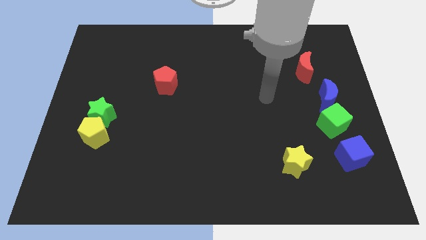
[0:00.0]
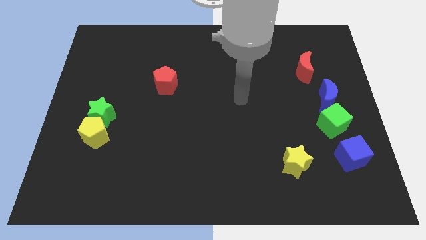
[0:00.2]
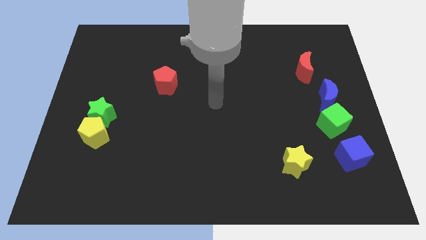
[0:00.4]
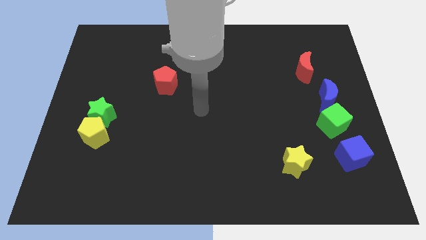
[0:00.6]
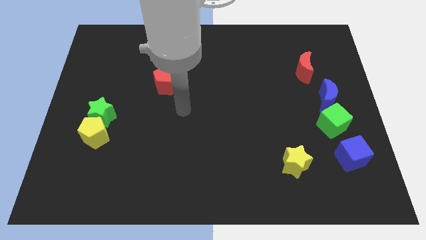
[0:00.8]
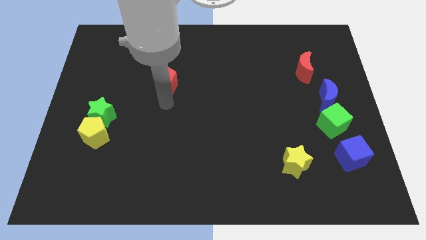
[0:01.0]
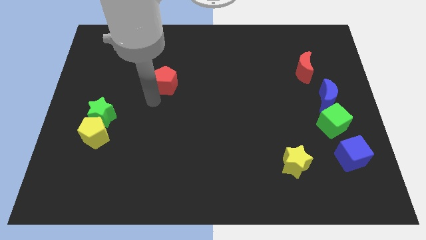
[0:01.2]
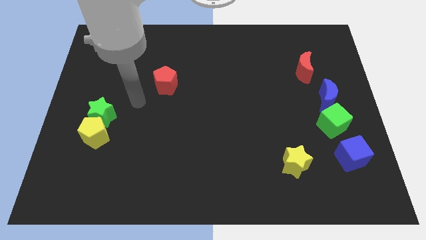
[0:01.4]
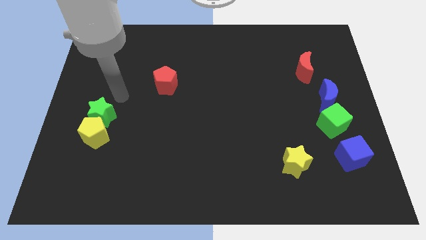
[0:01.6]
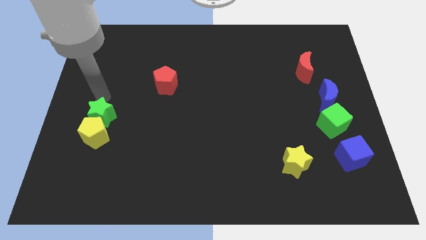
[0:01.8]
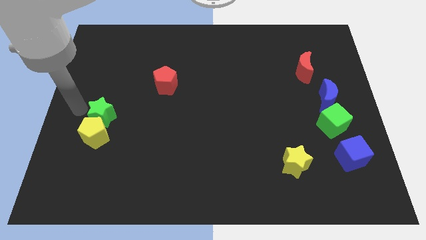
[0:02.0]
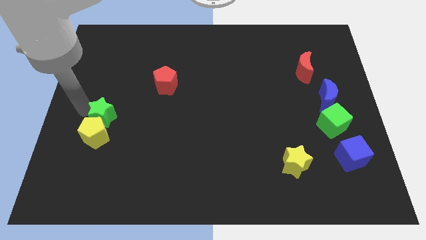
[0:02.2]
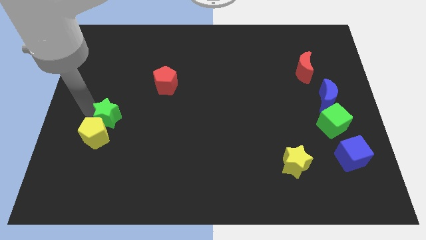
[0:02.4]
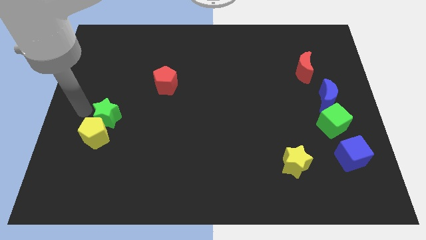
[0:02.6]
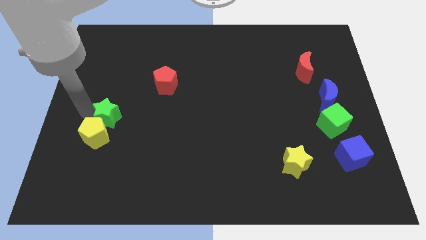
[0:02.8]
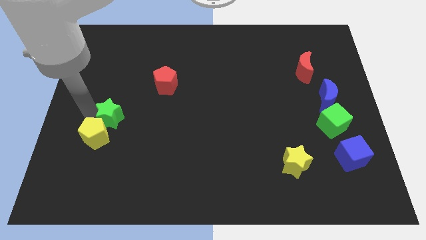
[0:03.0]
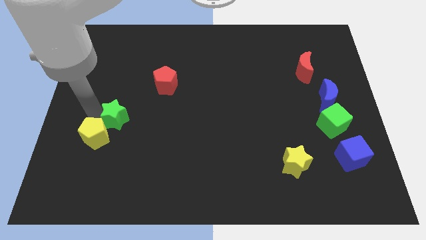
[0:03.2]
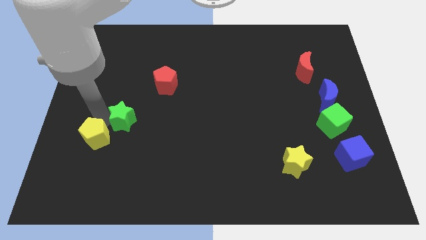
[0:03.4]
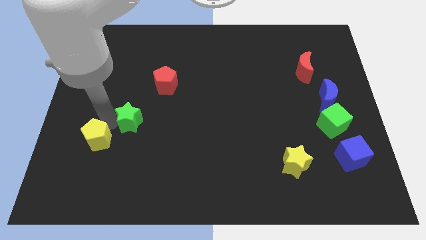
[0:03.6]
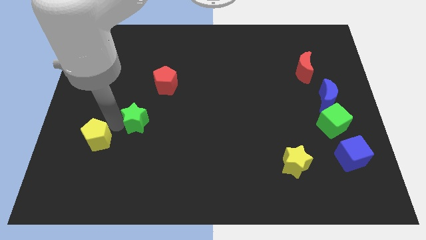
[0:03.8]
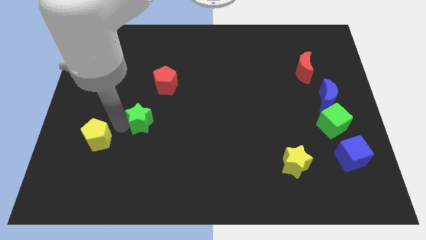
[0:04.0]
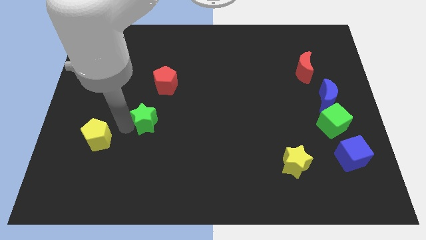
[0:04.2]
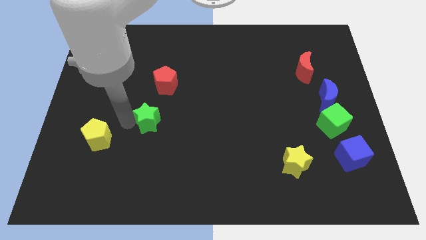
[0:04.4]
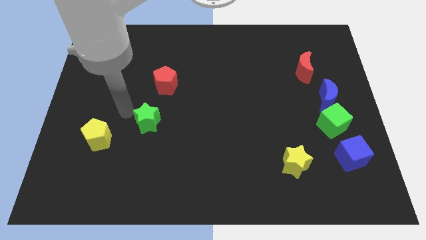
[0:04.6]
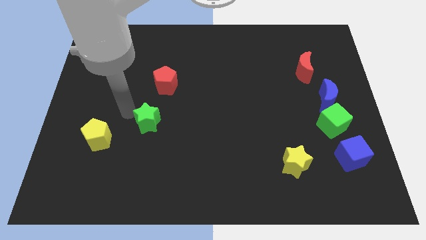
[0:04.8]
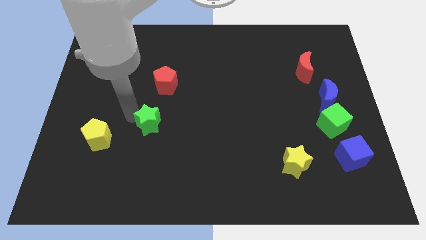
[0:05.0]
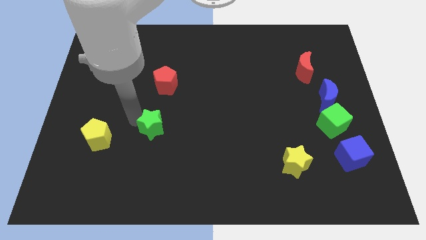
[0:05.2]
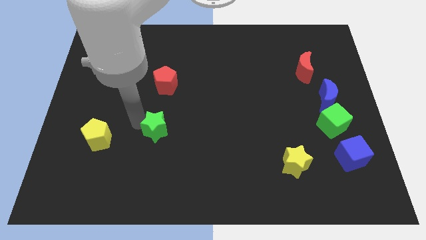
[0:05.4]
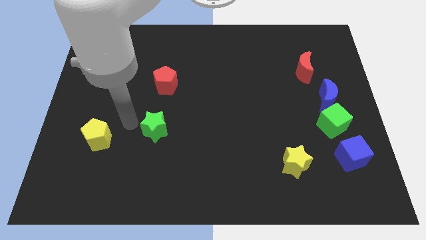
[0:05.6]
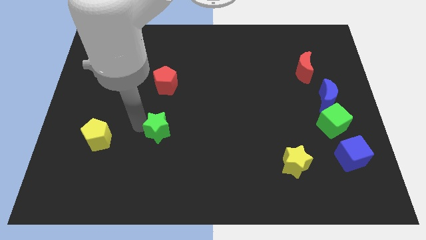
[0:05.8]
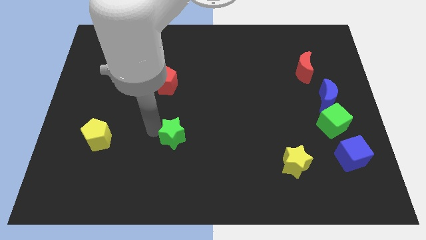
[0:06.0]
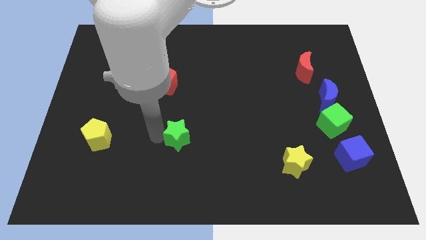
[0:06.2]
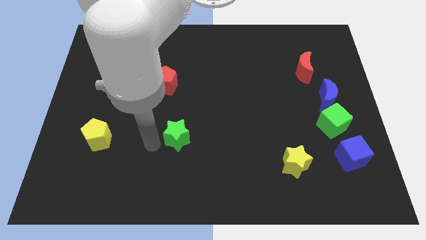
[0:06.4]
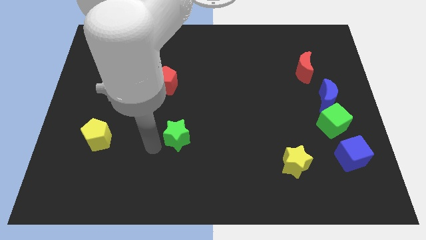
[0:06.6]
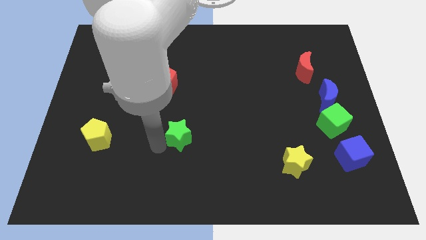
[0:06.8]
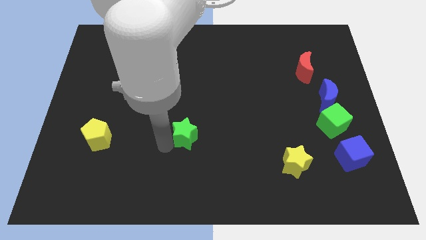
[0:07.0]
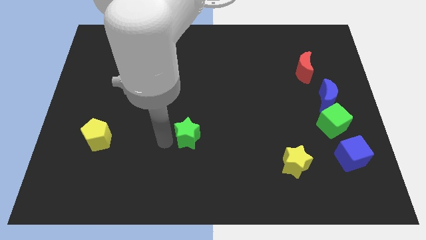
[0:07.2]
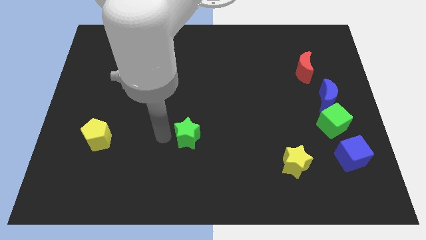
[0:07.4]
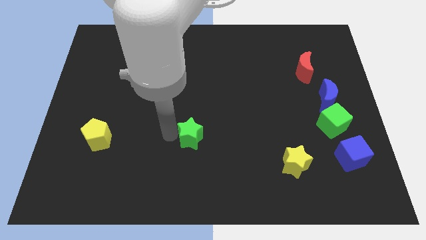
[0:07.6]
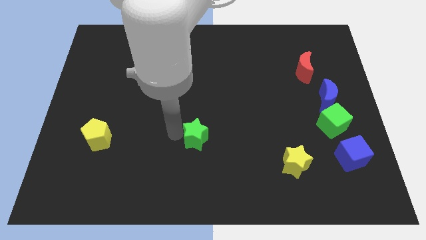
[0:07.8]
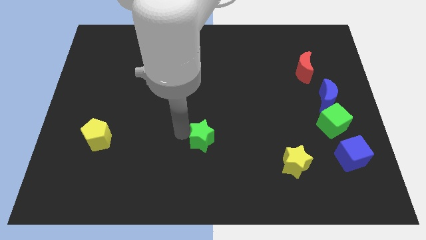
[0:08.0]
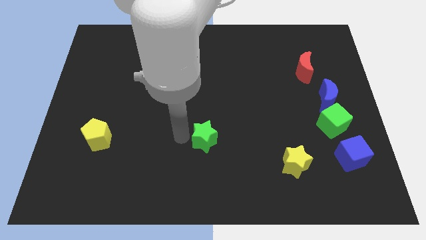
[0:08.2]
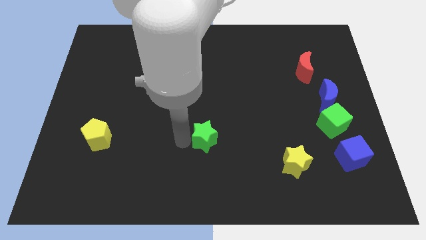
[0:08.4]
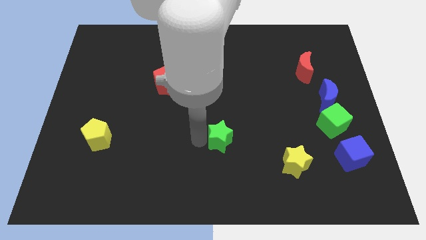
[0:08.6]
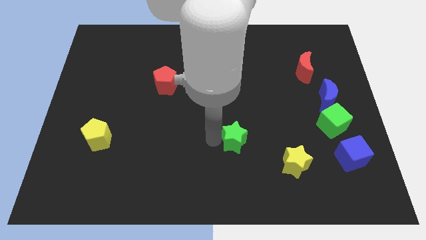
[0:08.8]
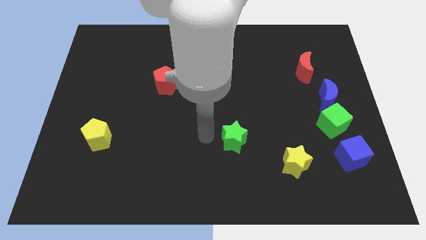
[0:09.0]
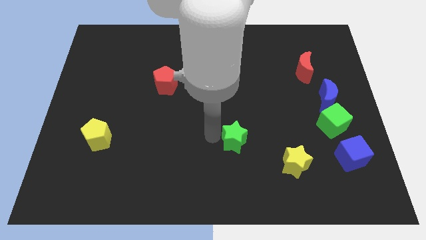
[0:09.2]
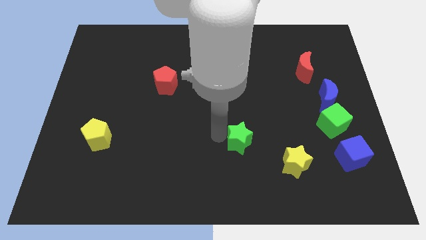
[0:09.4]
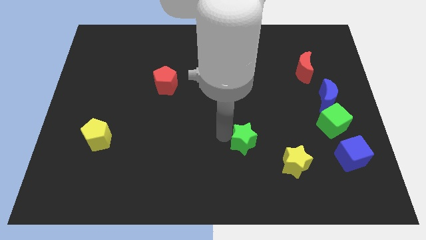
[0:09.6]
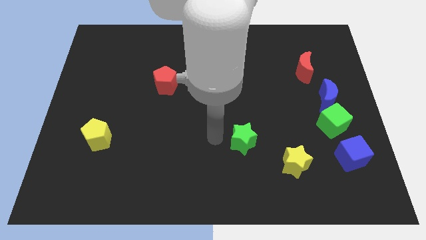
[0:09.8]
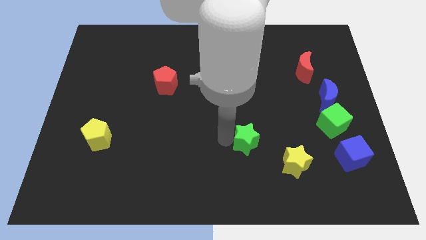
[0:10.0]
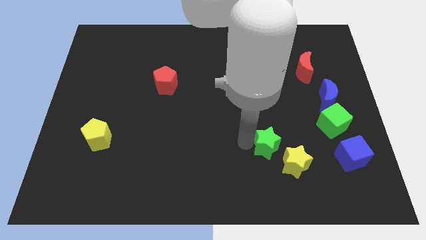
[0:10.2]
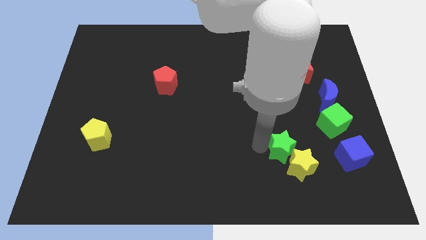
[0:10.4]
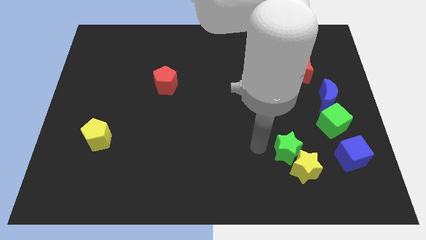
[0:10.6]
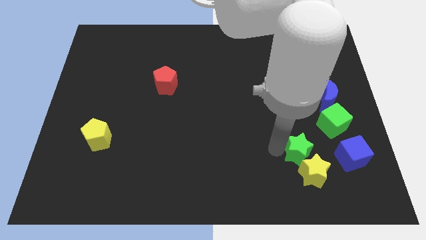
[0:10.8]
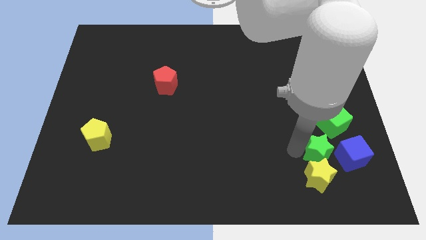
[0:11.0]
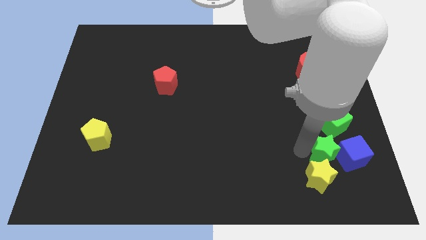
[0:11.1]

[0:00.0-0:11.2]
push the green star close to the blue cube

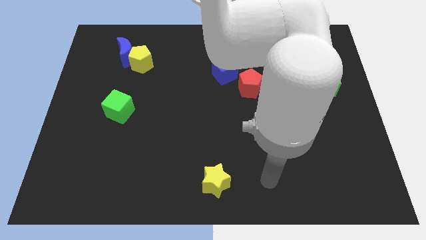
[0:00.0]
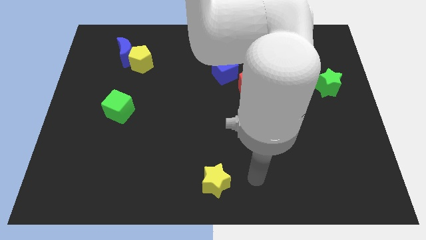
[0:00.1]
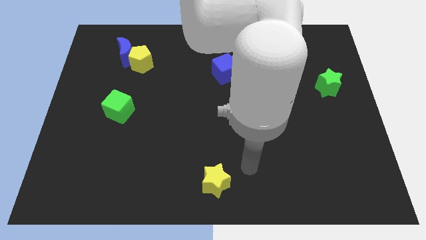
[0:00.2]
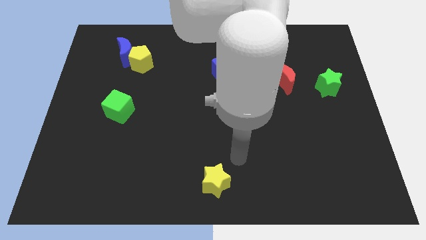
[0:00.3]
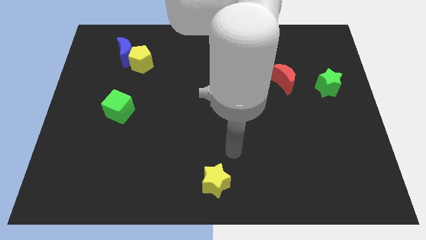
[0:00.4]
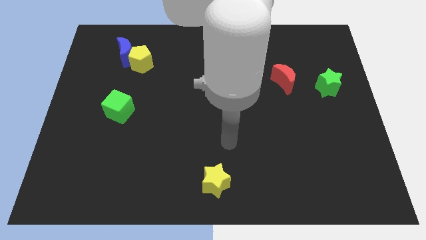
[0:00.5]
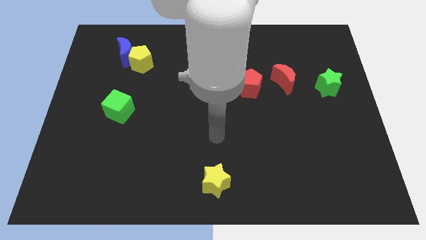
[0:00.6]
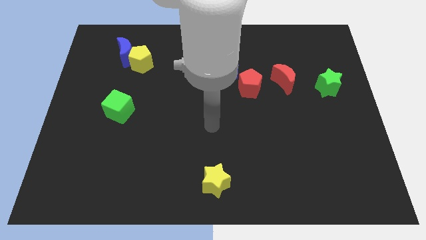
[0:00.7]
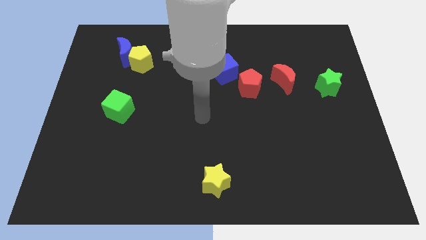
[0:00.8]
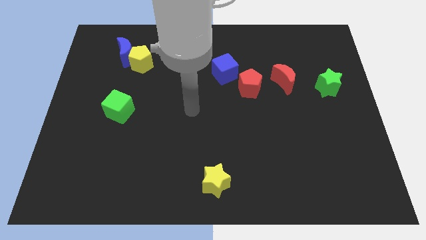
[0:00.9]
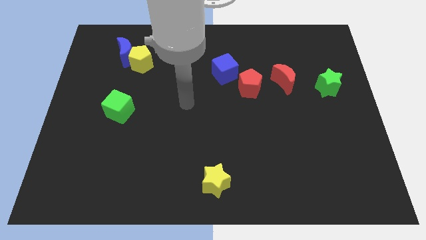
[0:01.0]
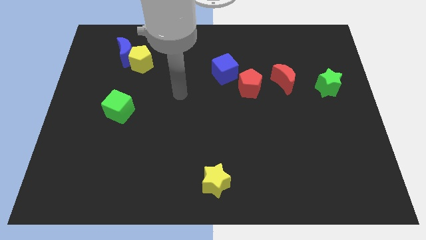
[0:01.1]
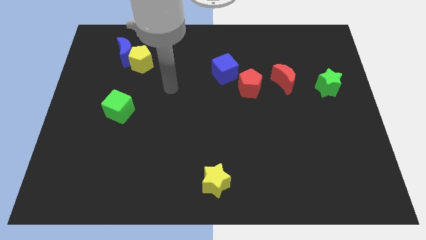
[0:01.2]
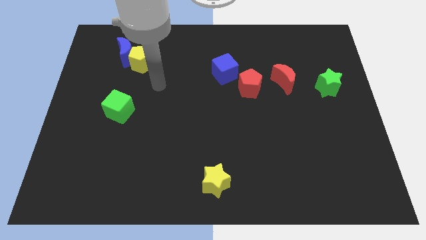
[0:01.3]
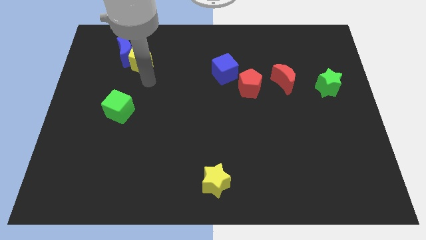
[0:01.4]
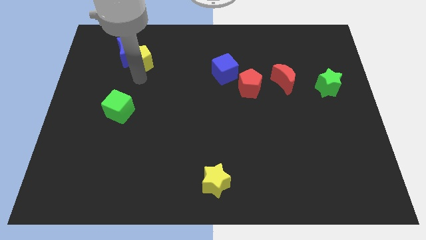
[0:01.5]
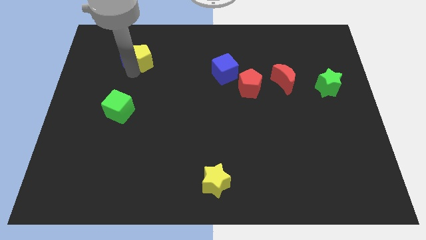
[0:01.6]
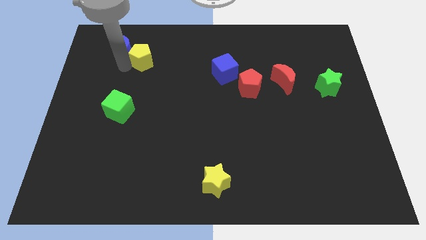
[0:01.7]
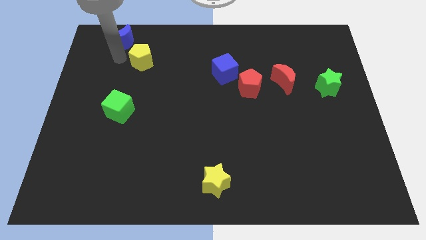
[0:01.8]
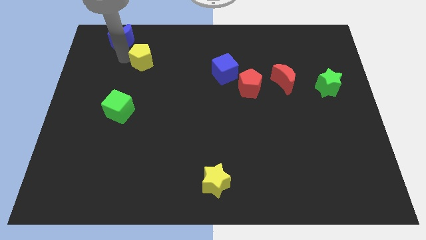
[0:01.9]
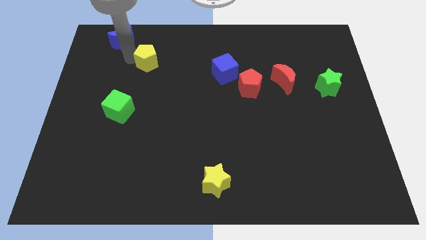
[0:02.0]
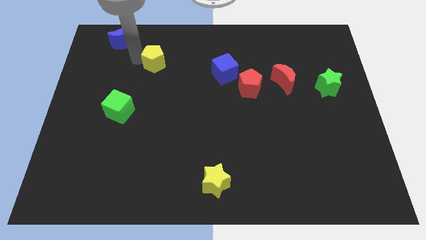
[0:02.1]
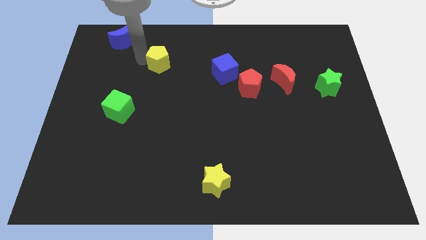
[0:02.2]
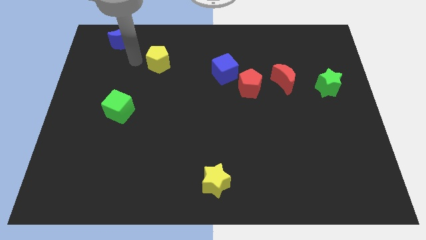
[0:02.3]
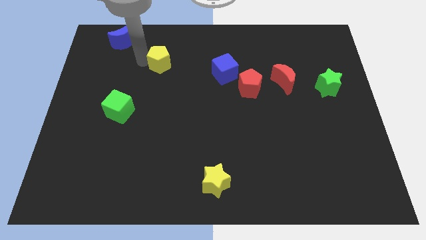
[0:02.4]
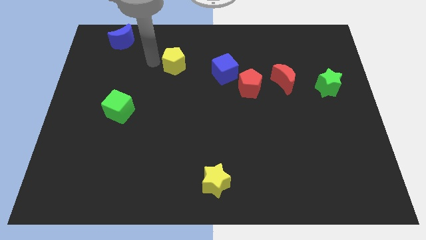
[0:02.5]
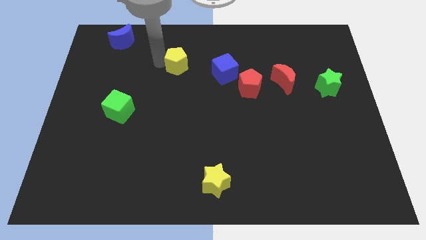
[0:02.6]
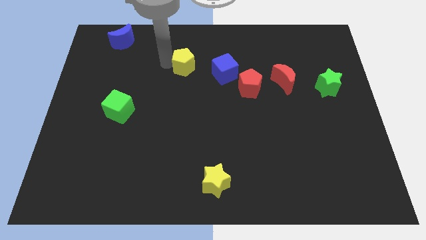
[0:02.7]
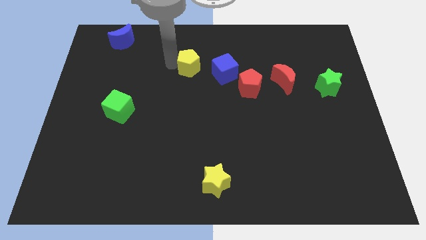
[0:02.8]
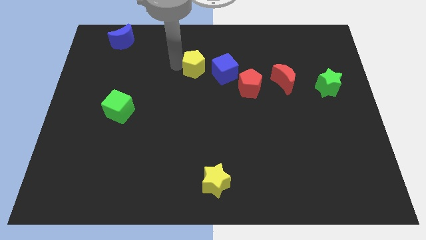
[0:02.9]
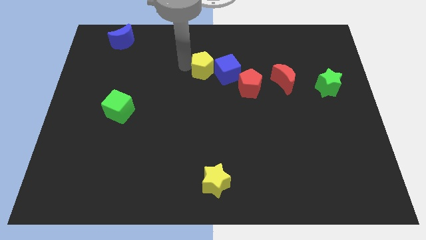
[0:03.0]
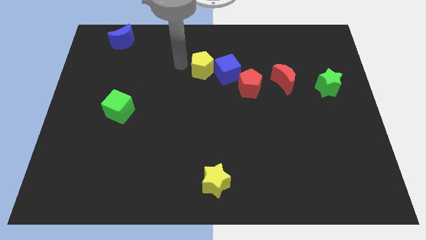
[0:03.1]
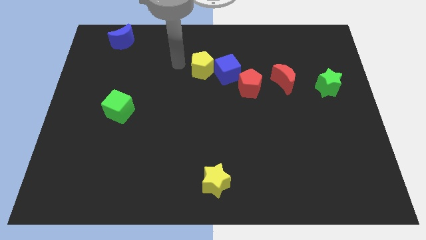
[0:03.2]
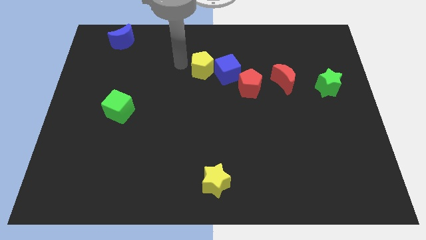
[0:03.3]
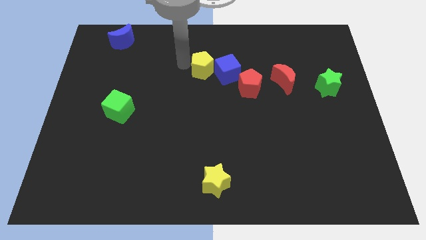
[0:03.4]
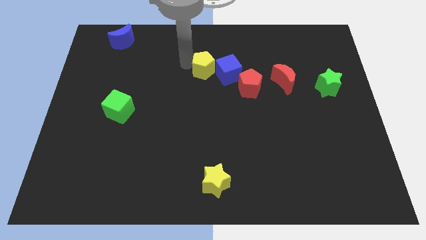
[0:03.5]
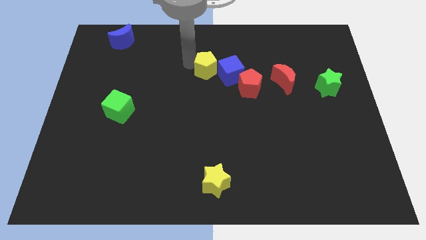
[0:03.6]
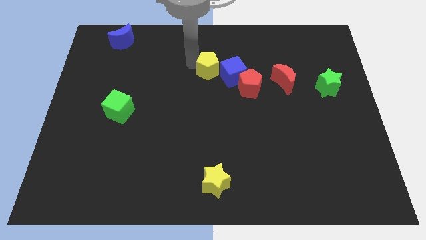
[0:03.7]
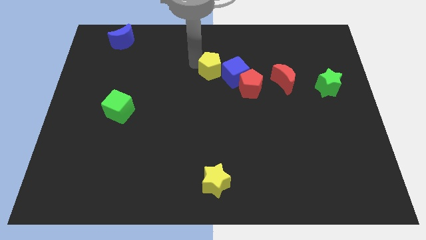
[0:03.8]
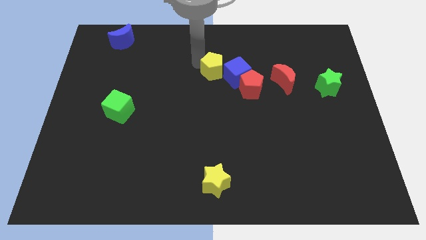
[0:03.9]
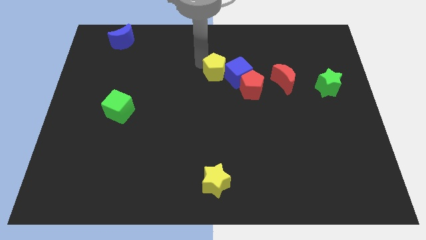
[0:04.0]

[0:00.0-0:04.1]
push the yellow pentagon to the blue cube
